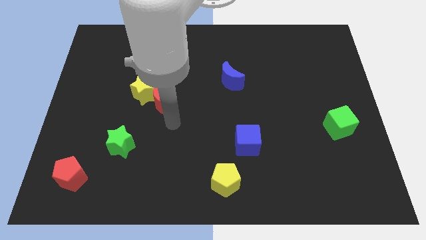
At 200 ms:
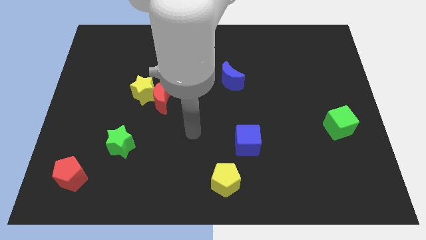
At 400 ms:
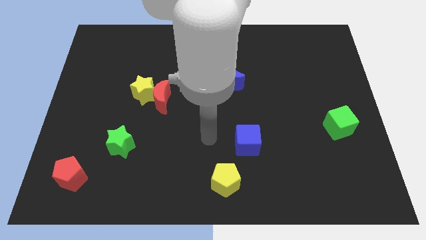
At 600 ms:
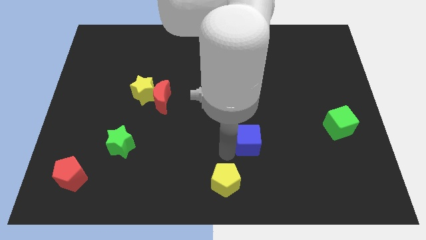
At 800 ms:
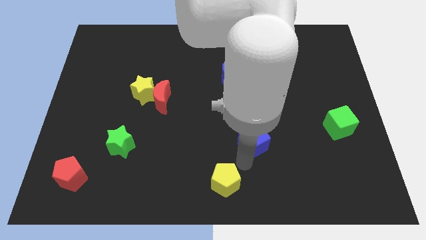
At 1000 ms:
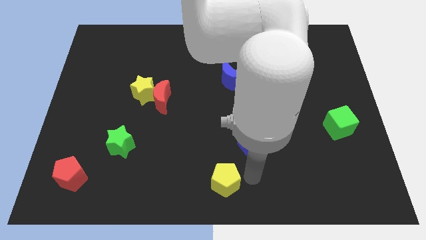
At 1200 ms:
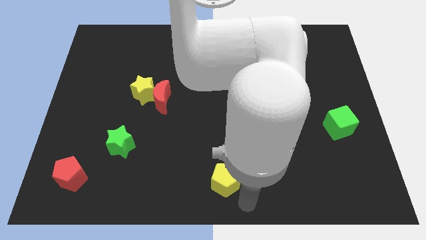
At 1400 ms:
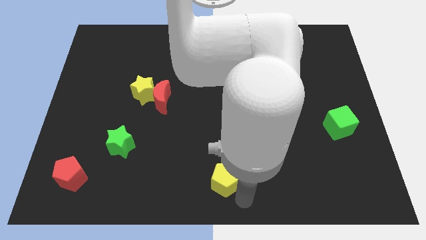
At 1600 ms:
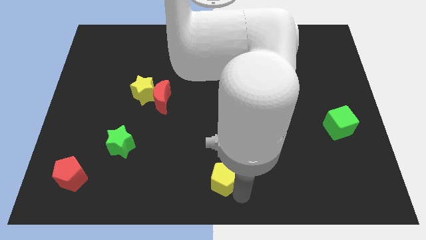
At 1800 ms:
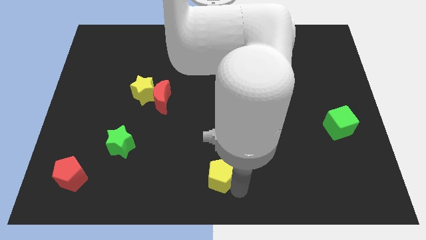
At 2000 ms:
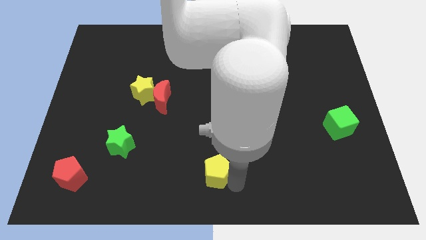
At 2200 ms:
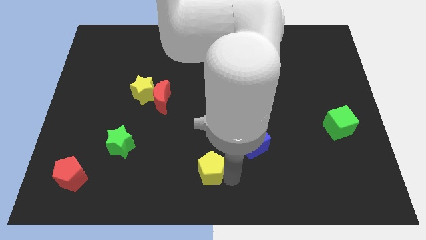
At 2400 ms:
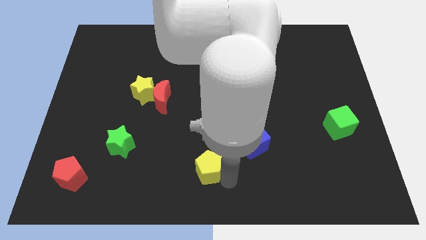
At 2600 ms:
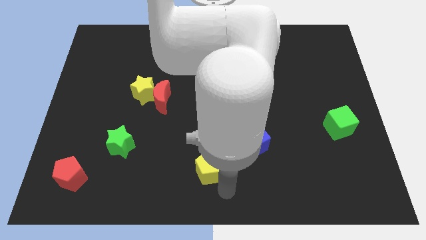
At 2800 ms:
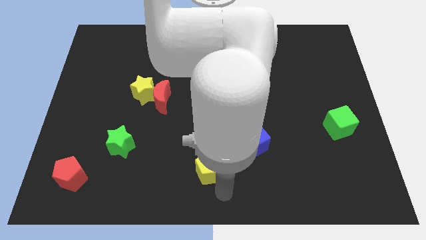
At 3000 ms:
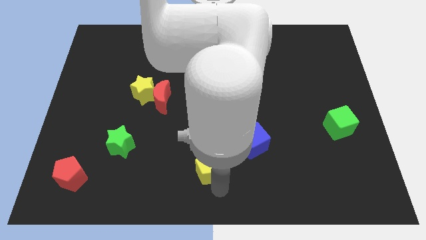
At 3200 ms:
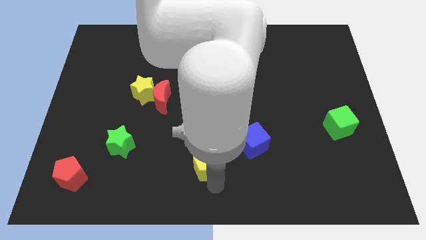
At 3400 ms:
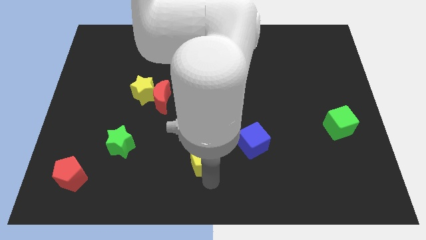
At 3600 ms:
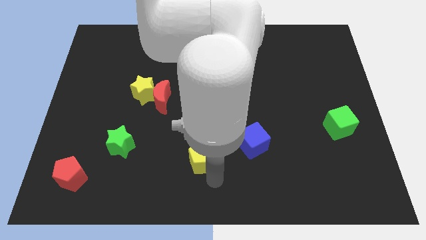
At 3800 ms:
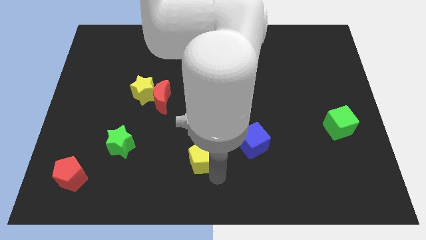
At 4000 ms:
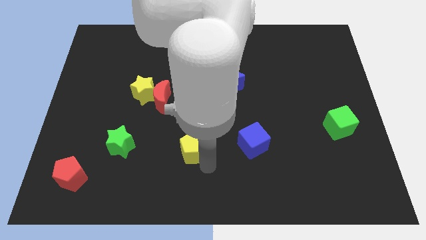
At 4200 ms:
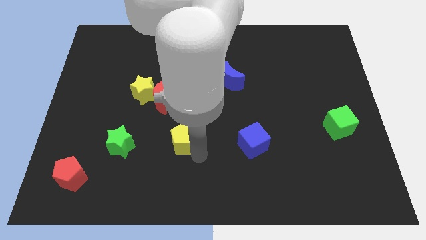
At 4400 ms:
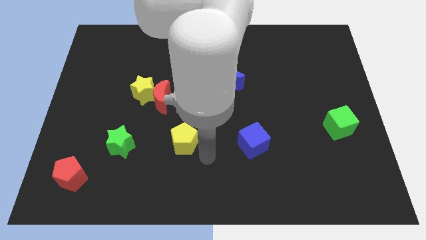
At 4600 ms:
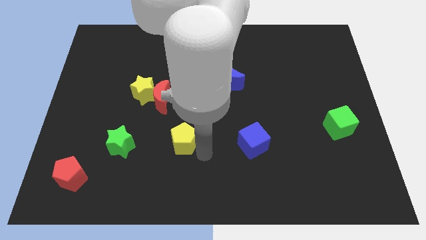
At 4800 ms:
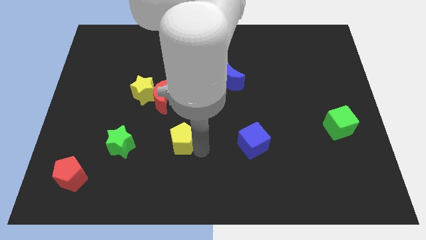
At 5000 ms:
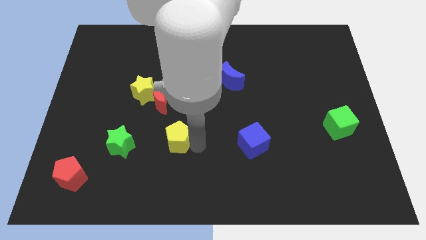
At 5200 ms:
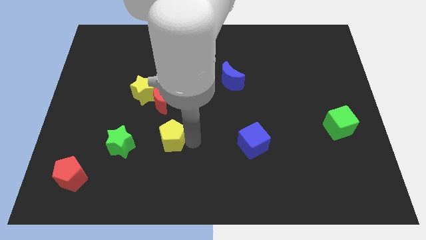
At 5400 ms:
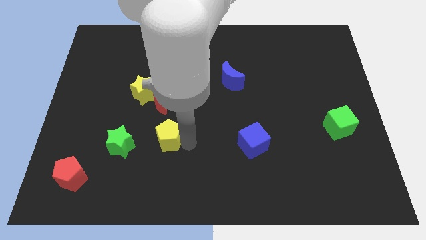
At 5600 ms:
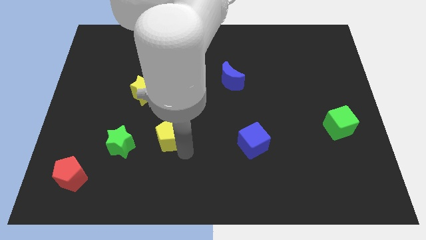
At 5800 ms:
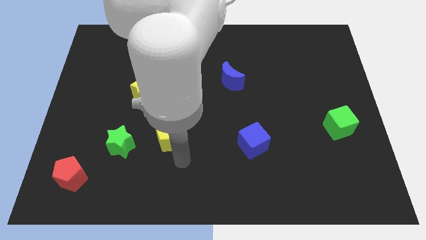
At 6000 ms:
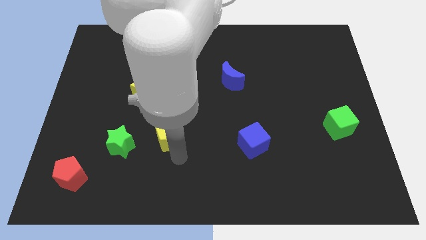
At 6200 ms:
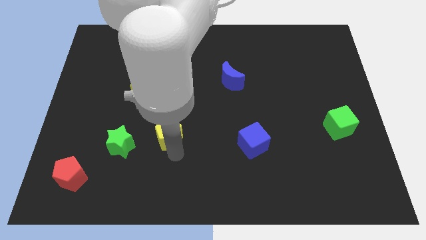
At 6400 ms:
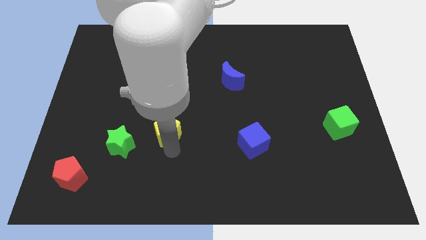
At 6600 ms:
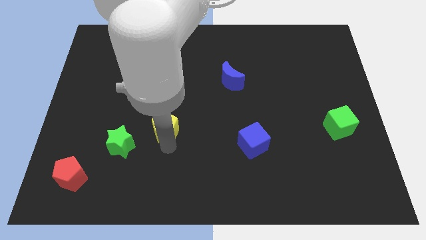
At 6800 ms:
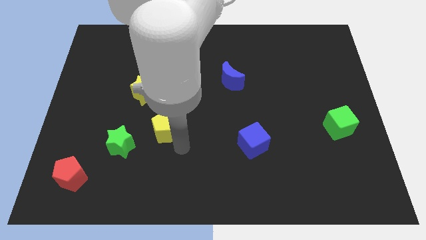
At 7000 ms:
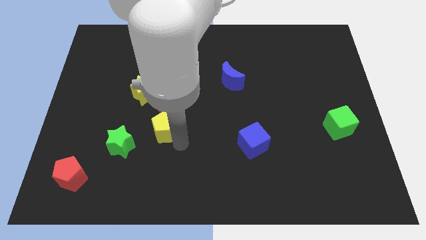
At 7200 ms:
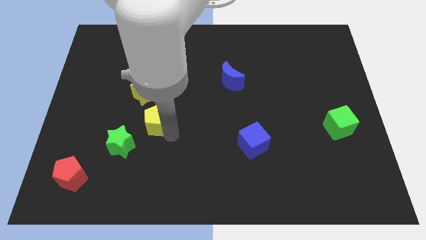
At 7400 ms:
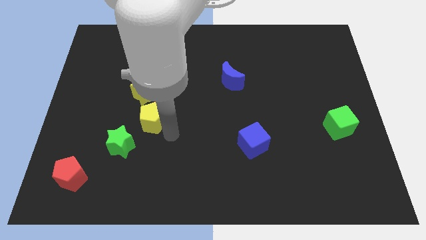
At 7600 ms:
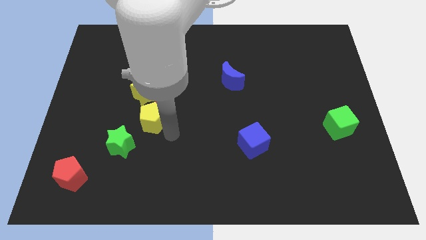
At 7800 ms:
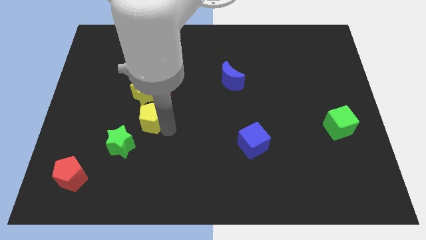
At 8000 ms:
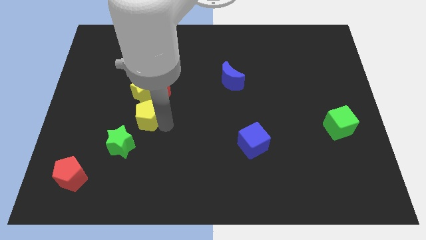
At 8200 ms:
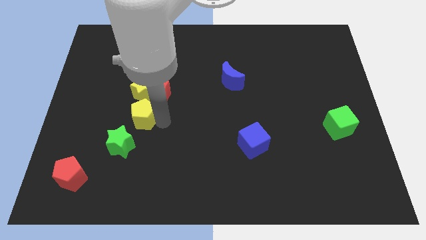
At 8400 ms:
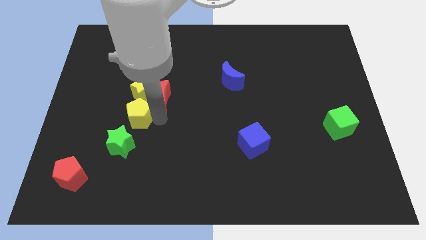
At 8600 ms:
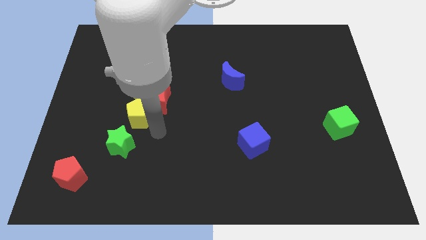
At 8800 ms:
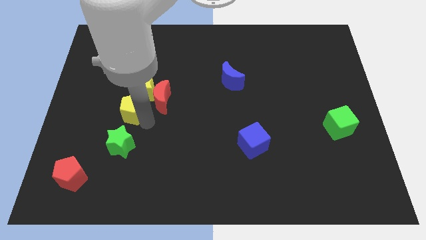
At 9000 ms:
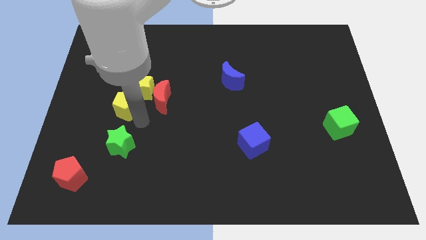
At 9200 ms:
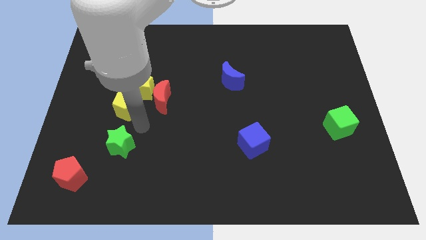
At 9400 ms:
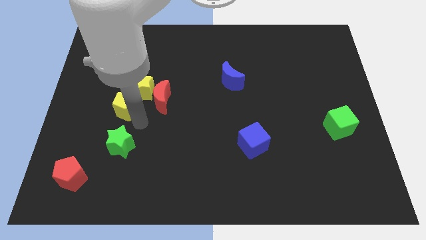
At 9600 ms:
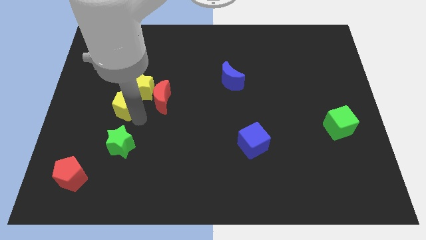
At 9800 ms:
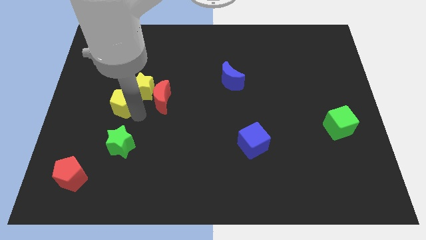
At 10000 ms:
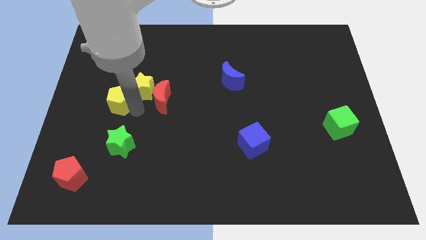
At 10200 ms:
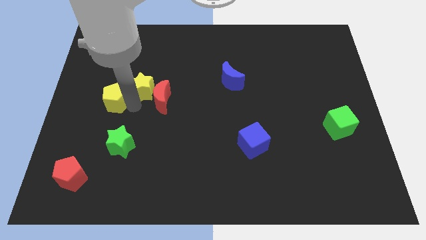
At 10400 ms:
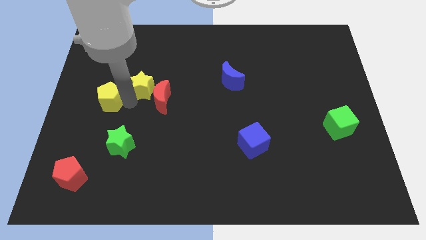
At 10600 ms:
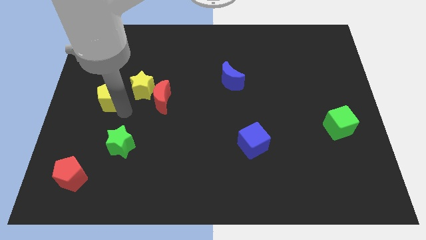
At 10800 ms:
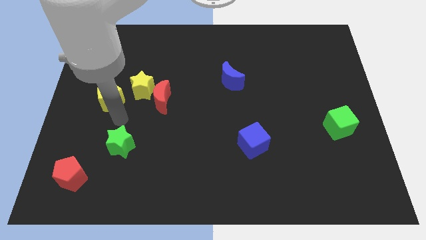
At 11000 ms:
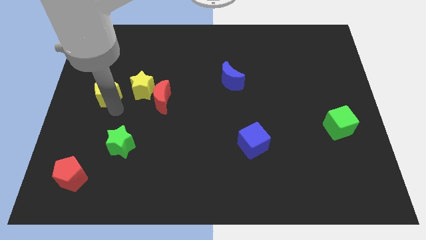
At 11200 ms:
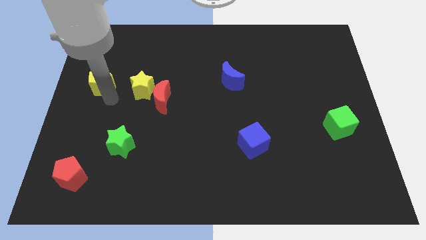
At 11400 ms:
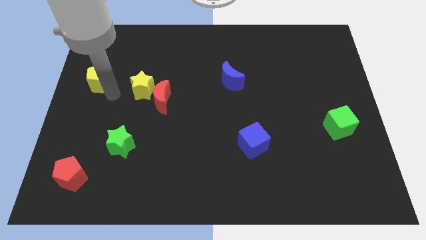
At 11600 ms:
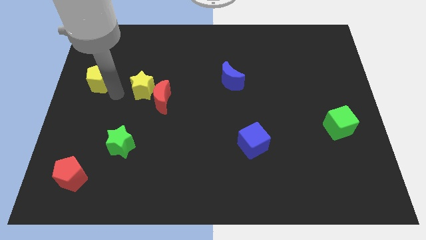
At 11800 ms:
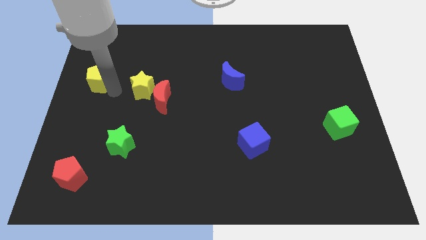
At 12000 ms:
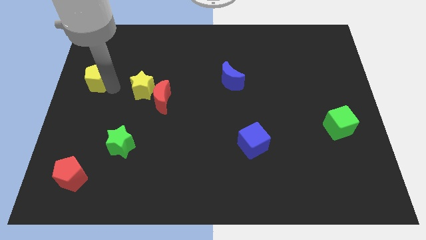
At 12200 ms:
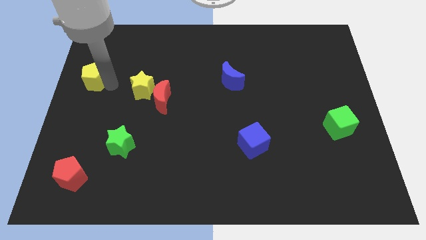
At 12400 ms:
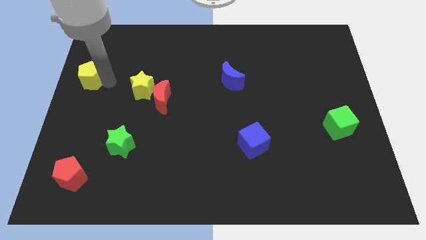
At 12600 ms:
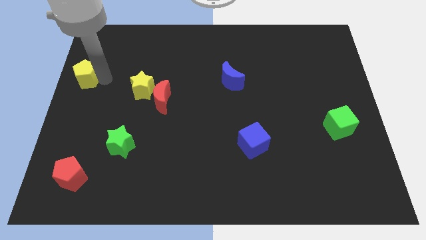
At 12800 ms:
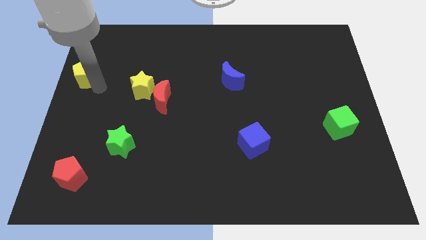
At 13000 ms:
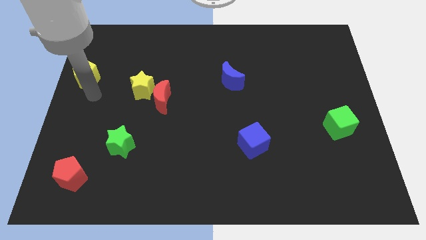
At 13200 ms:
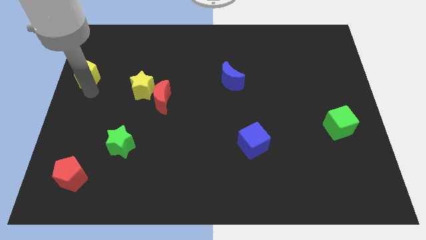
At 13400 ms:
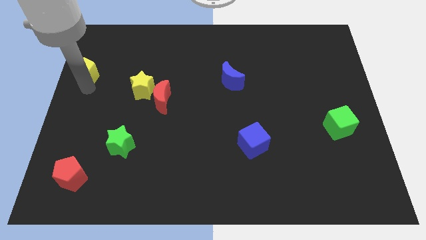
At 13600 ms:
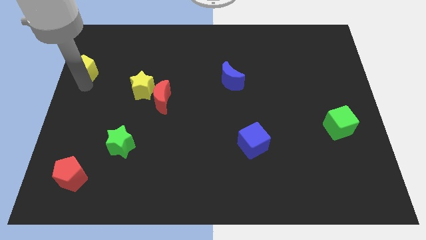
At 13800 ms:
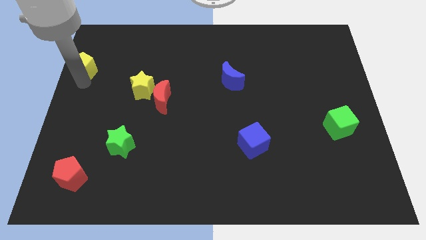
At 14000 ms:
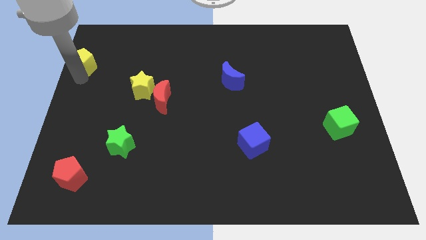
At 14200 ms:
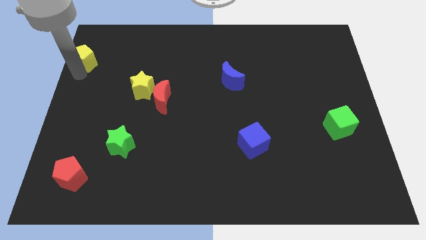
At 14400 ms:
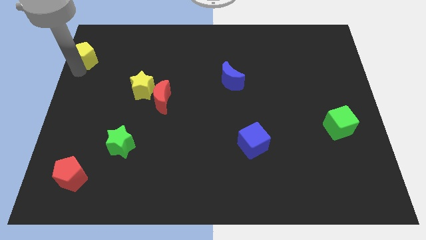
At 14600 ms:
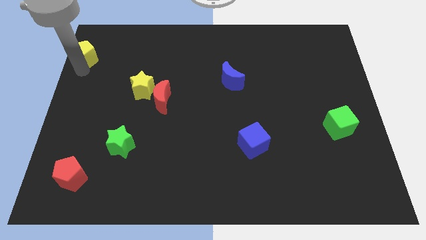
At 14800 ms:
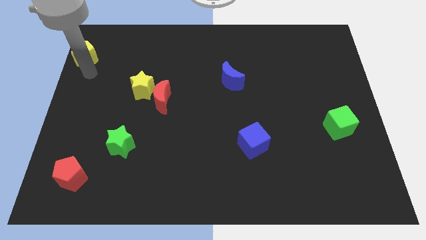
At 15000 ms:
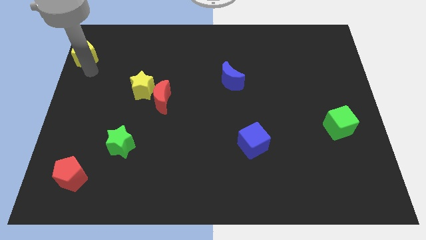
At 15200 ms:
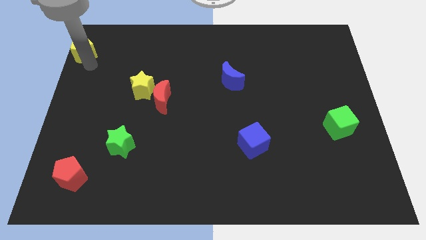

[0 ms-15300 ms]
push the yellow pentagon to the top left corner
